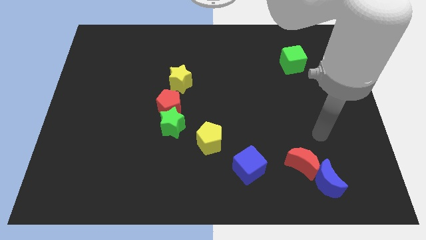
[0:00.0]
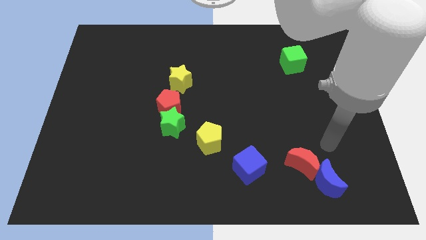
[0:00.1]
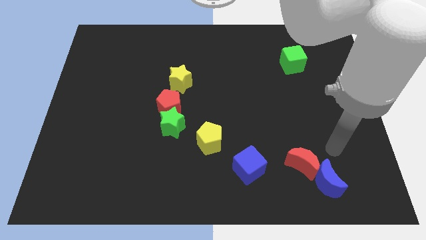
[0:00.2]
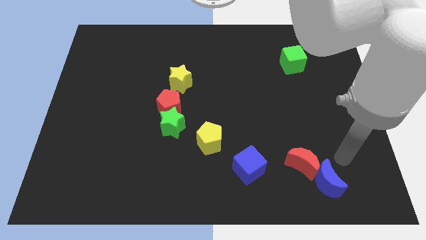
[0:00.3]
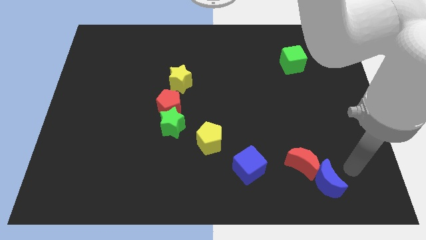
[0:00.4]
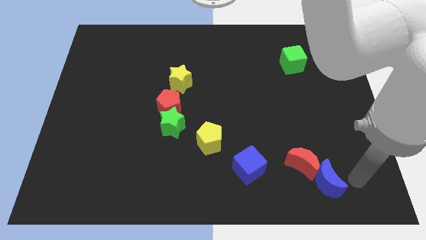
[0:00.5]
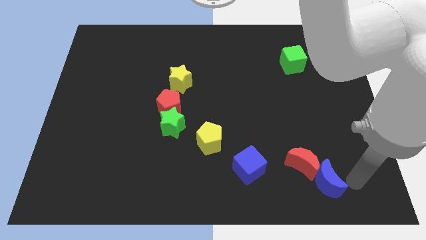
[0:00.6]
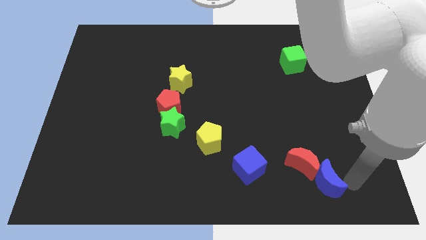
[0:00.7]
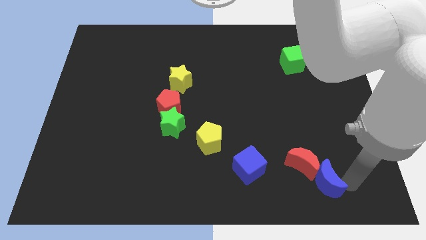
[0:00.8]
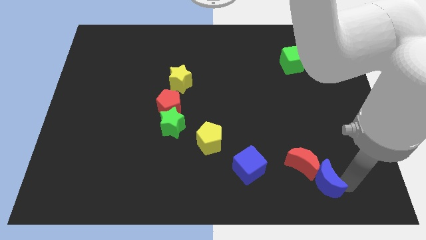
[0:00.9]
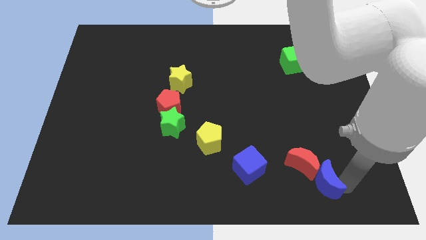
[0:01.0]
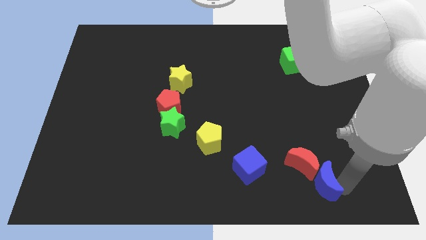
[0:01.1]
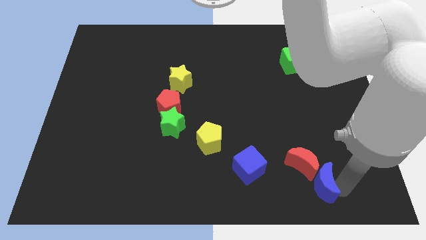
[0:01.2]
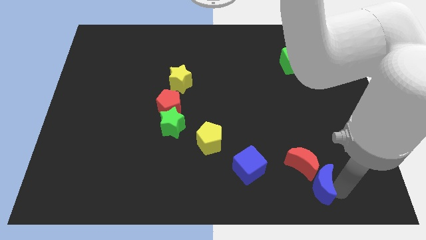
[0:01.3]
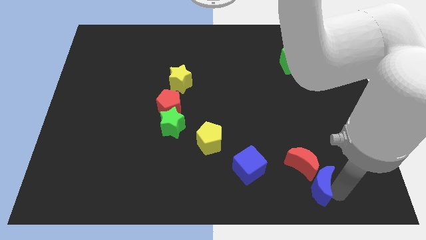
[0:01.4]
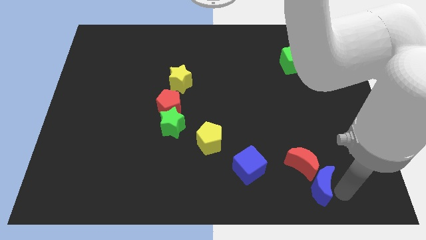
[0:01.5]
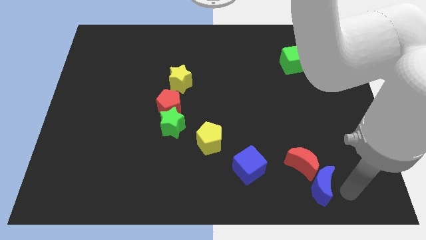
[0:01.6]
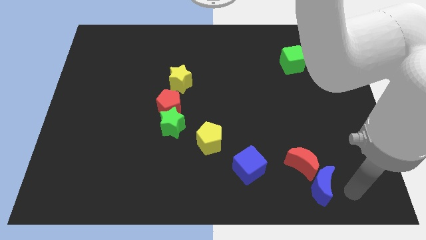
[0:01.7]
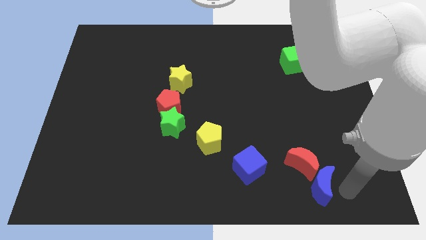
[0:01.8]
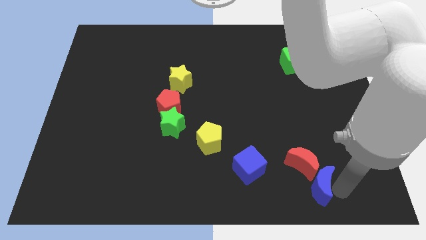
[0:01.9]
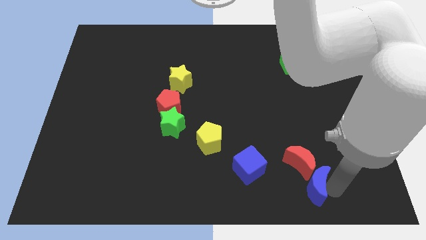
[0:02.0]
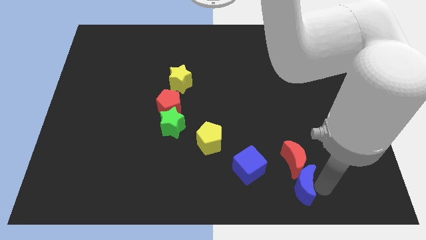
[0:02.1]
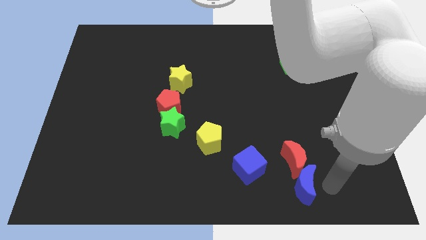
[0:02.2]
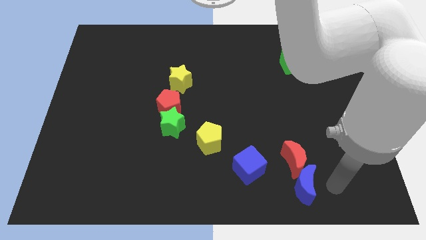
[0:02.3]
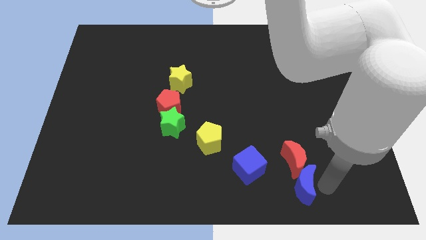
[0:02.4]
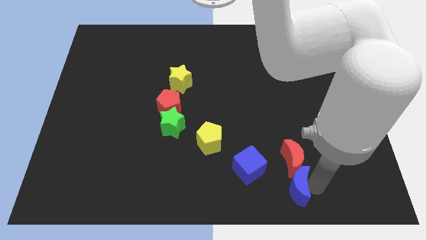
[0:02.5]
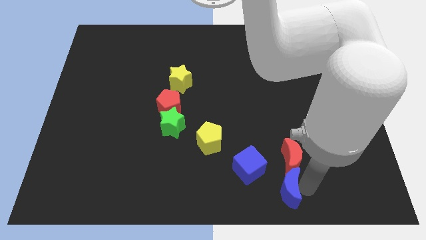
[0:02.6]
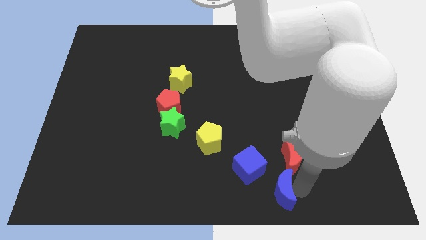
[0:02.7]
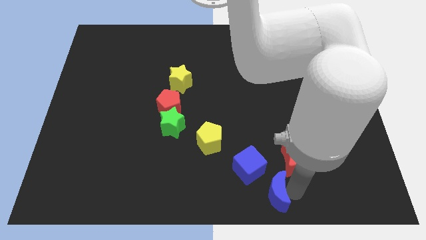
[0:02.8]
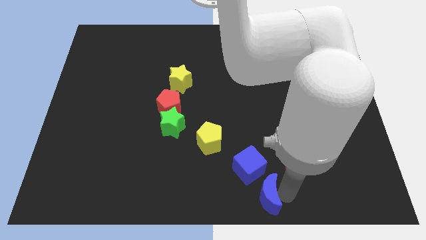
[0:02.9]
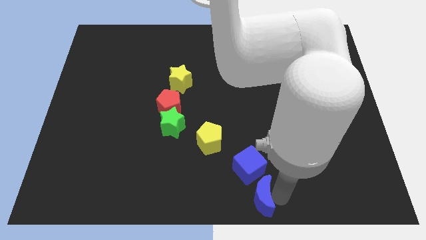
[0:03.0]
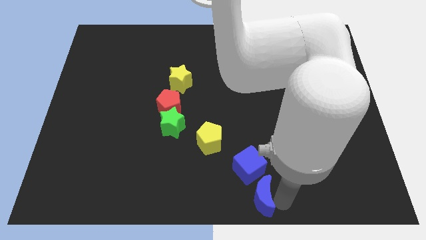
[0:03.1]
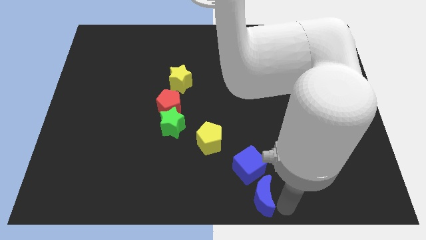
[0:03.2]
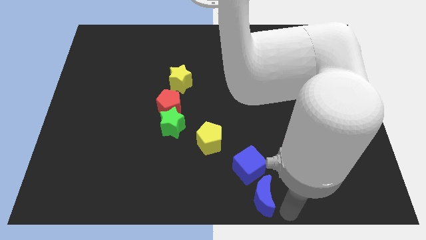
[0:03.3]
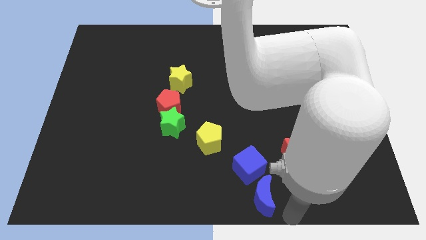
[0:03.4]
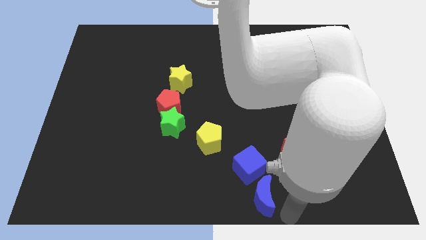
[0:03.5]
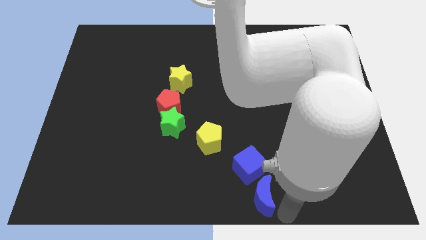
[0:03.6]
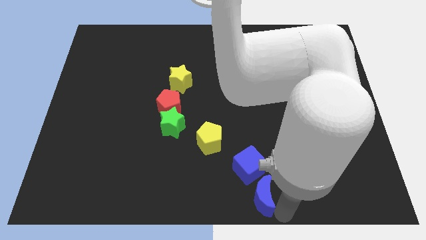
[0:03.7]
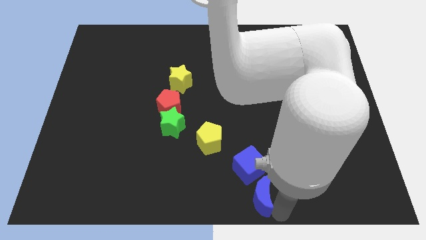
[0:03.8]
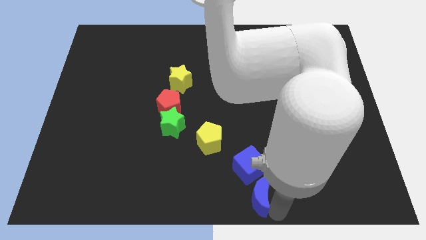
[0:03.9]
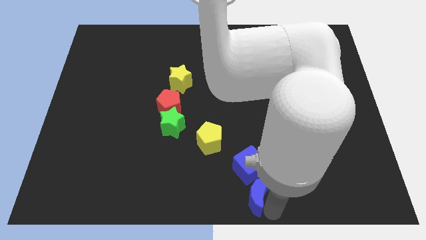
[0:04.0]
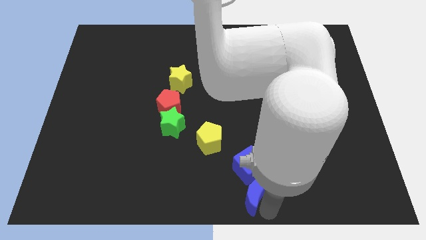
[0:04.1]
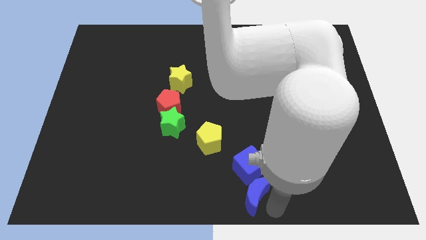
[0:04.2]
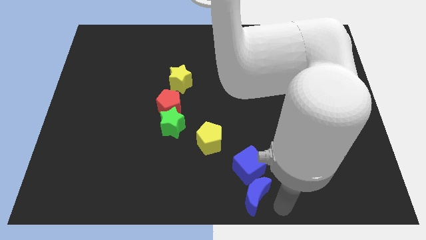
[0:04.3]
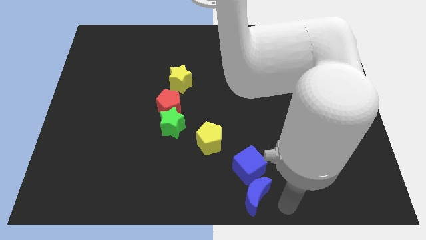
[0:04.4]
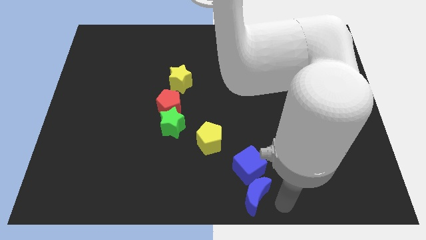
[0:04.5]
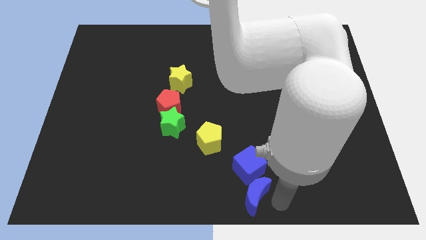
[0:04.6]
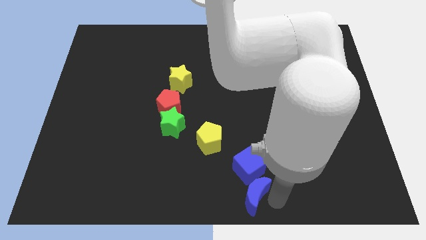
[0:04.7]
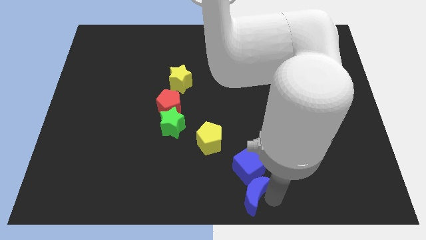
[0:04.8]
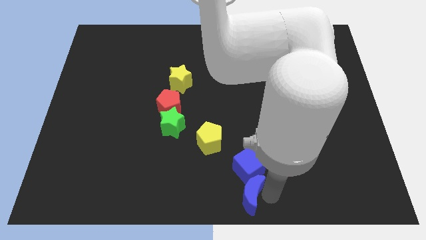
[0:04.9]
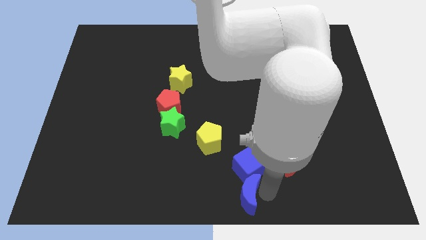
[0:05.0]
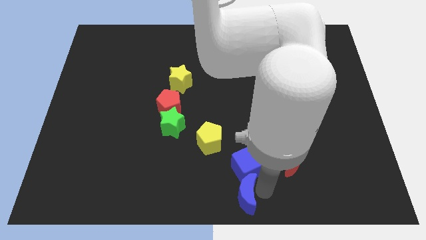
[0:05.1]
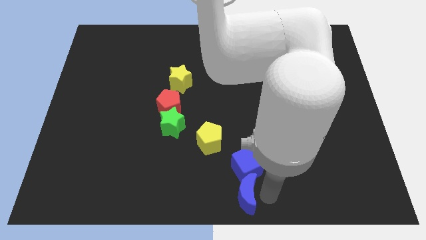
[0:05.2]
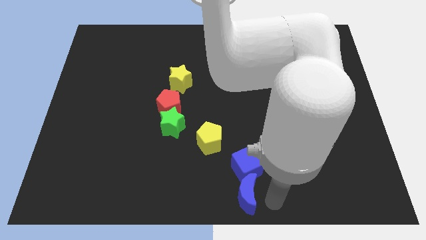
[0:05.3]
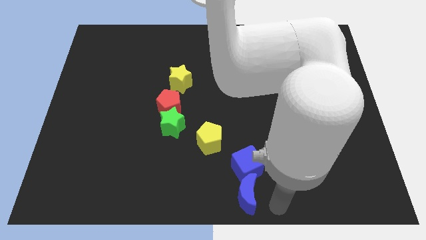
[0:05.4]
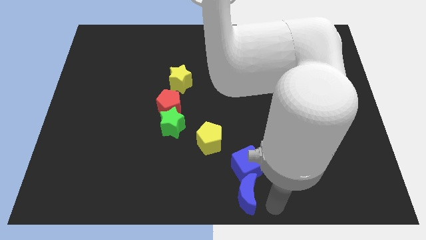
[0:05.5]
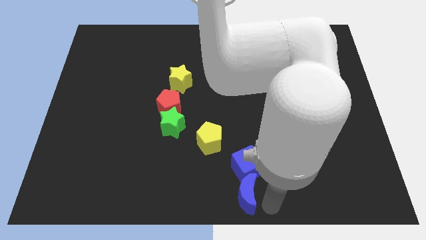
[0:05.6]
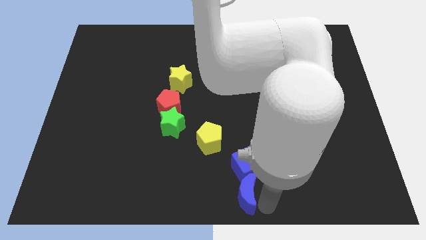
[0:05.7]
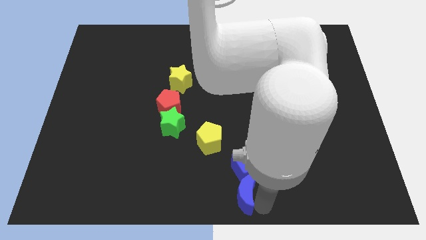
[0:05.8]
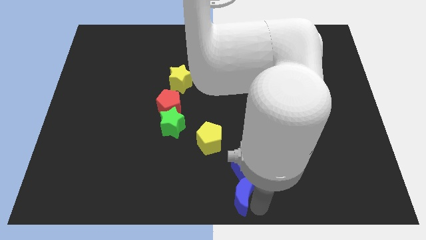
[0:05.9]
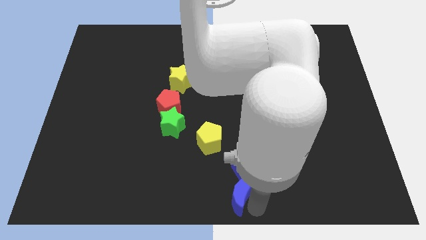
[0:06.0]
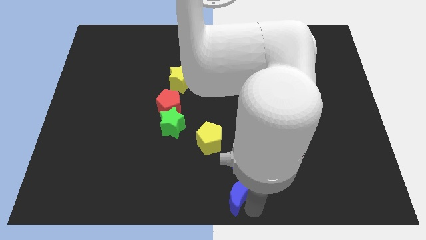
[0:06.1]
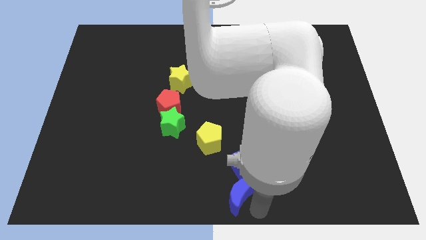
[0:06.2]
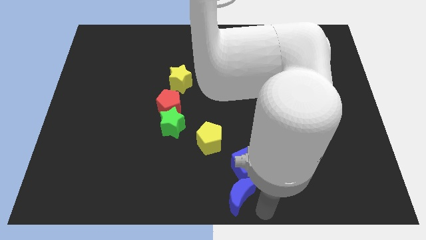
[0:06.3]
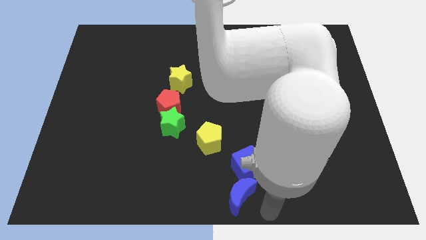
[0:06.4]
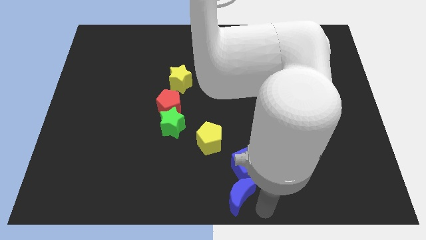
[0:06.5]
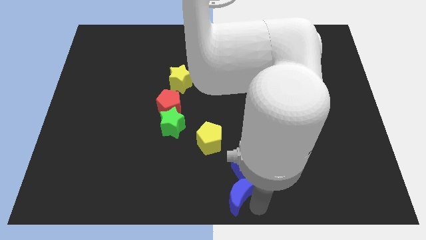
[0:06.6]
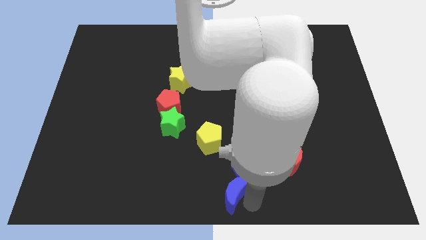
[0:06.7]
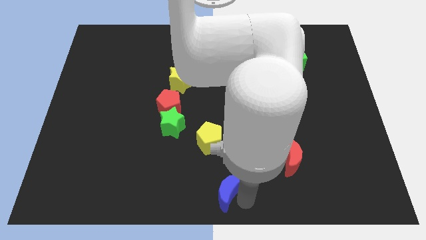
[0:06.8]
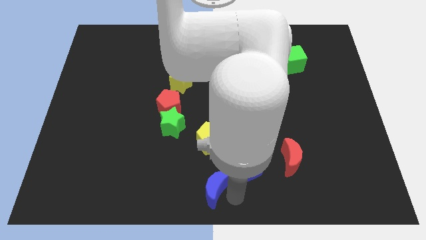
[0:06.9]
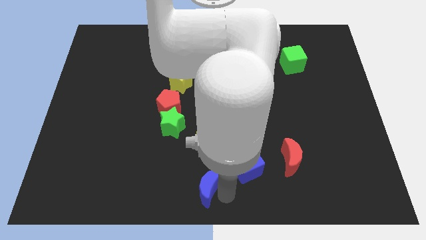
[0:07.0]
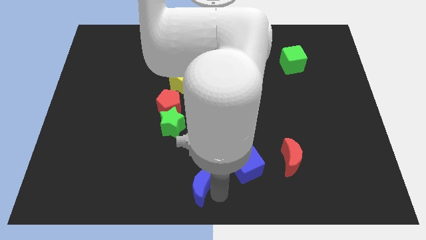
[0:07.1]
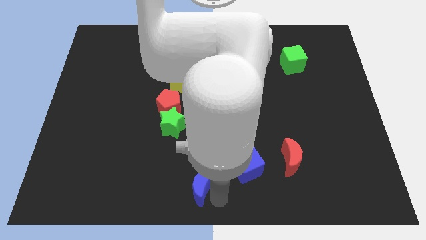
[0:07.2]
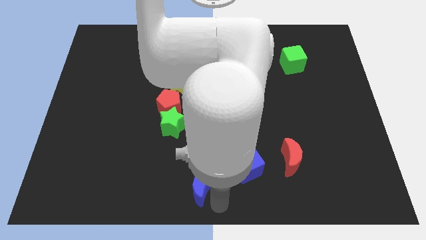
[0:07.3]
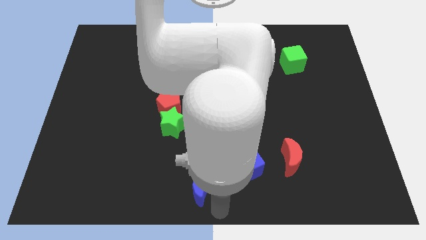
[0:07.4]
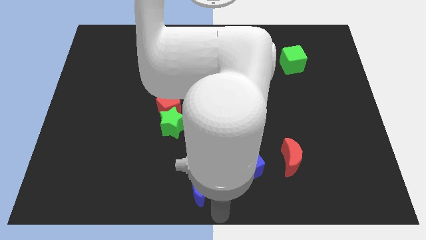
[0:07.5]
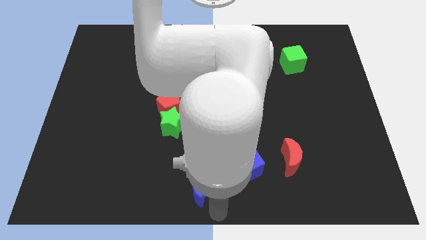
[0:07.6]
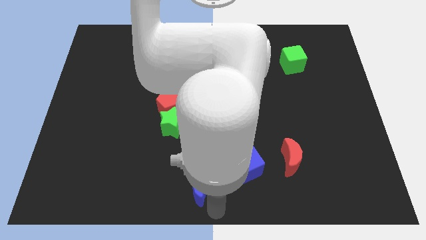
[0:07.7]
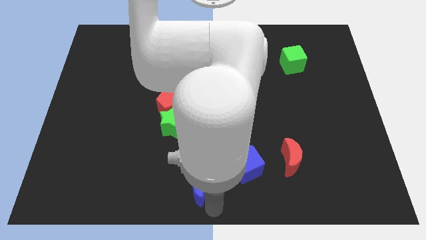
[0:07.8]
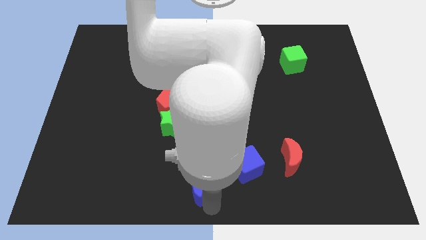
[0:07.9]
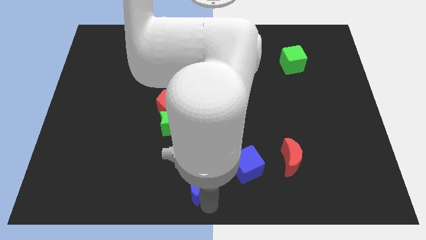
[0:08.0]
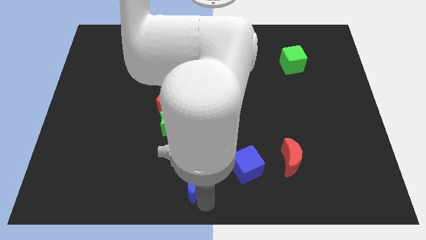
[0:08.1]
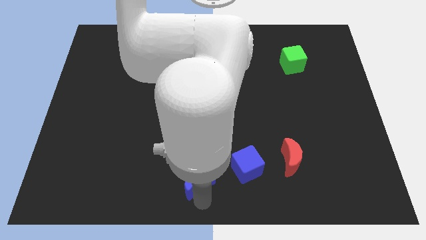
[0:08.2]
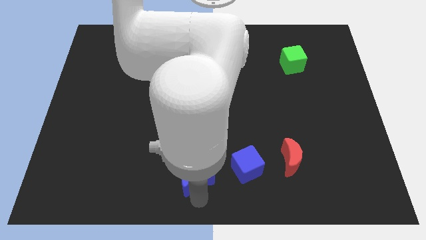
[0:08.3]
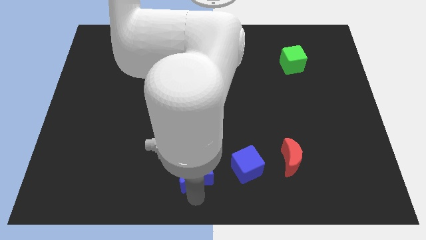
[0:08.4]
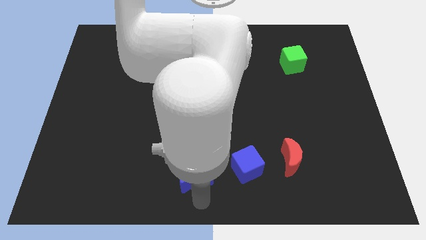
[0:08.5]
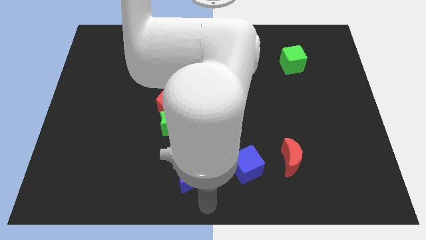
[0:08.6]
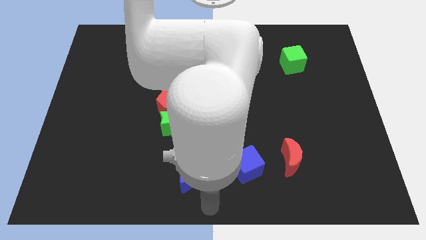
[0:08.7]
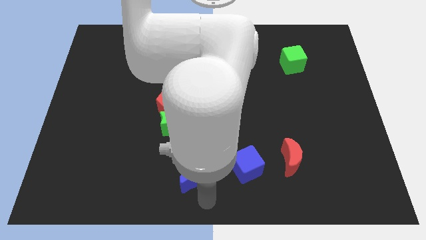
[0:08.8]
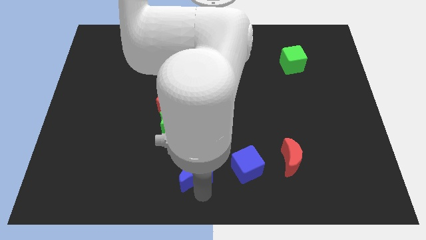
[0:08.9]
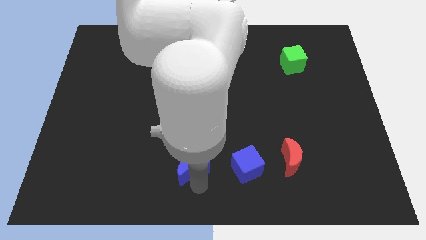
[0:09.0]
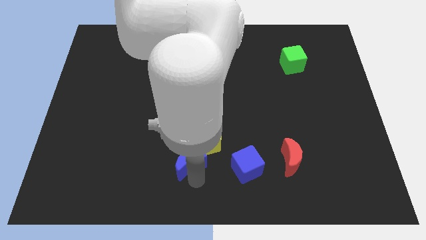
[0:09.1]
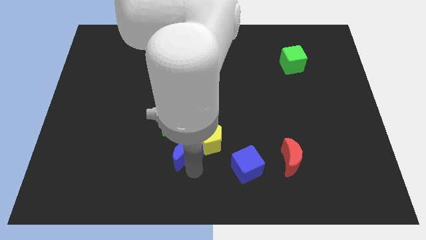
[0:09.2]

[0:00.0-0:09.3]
put the blue moon left of the yellow pentagon
